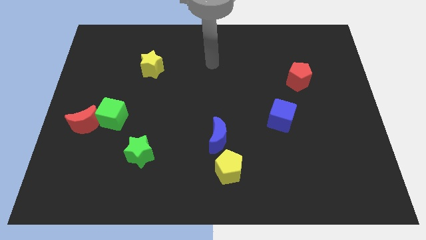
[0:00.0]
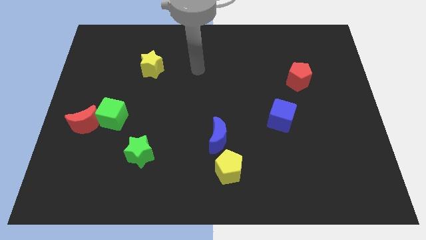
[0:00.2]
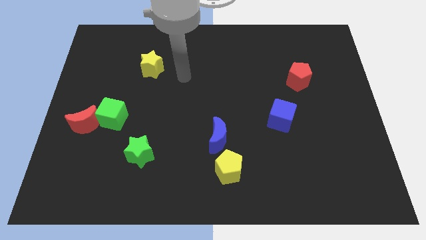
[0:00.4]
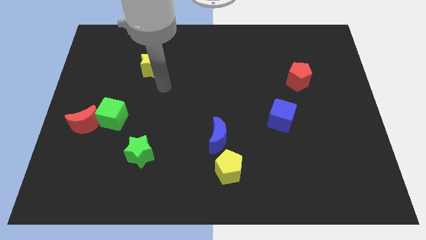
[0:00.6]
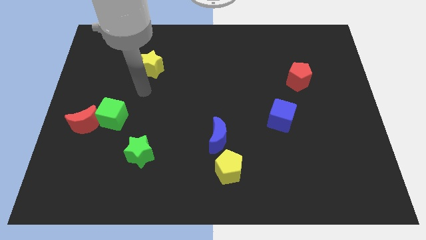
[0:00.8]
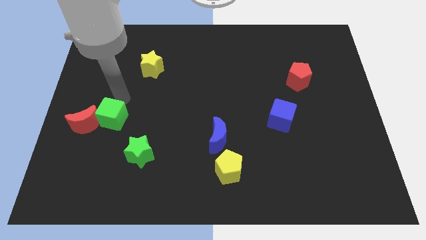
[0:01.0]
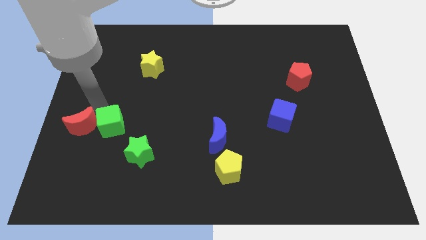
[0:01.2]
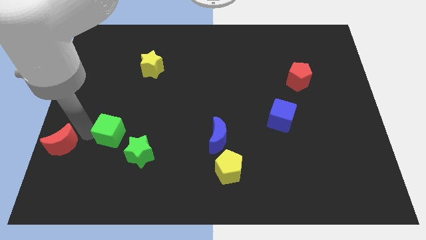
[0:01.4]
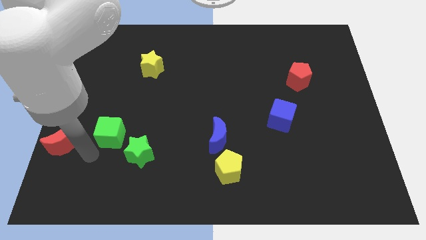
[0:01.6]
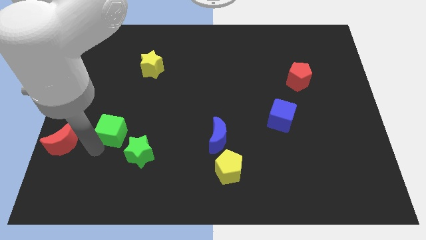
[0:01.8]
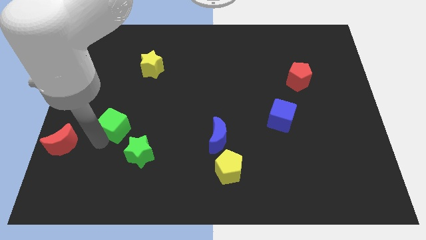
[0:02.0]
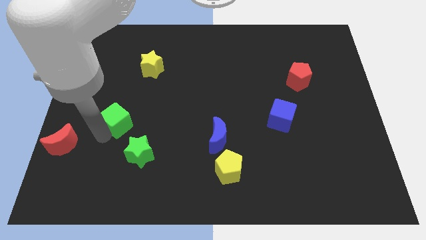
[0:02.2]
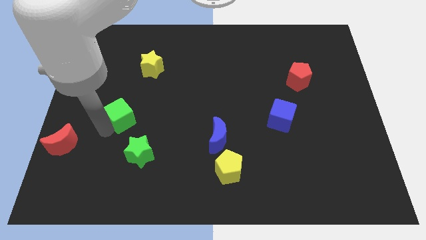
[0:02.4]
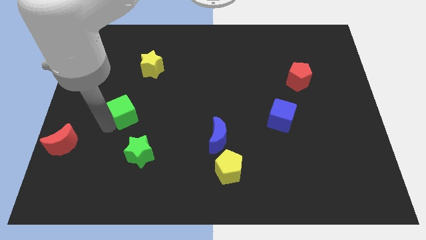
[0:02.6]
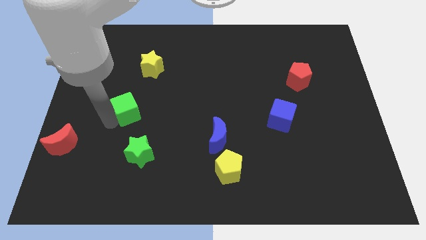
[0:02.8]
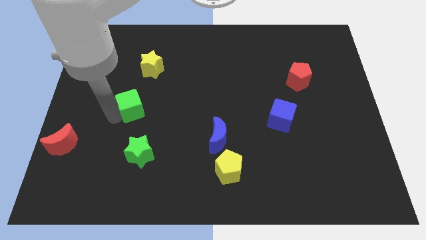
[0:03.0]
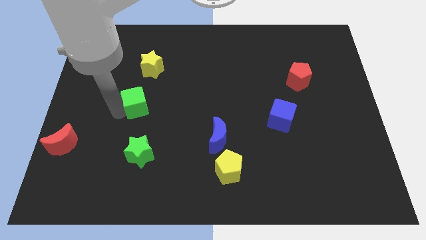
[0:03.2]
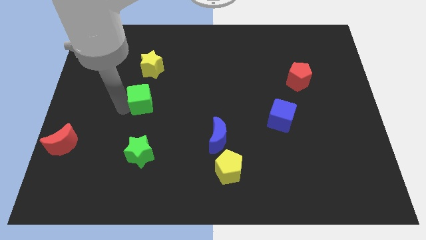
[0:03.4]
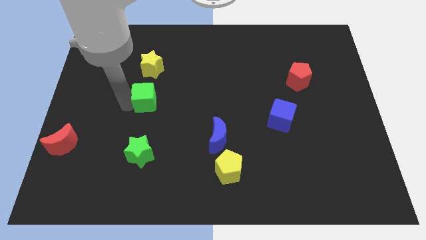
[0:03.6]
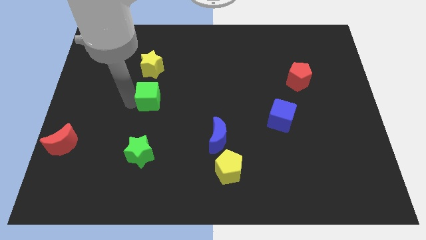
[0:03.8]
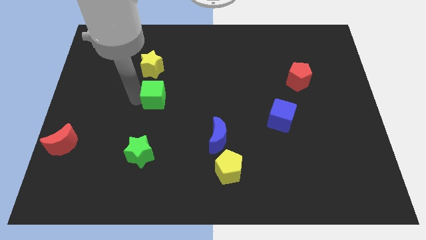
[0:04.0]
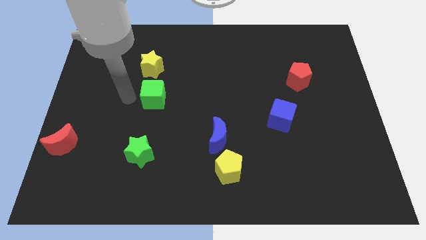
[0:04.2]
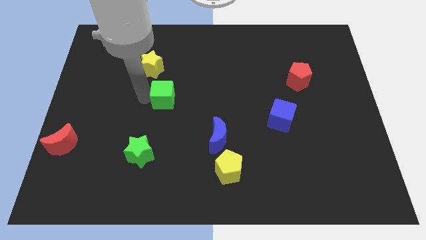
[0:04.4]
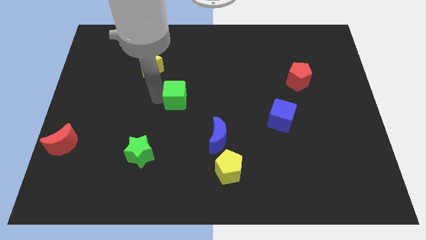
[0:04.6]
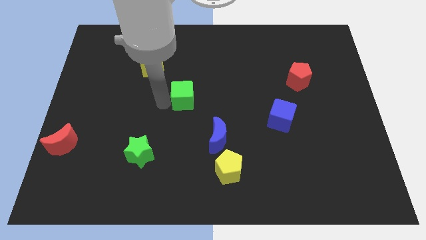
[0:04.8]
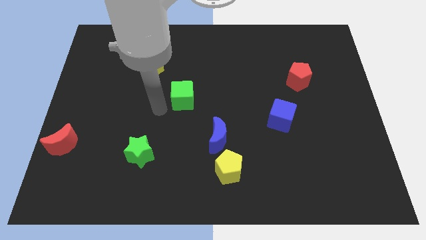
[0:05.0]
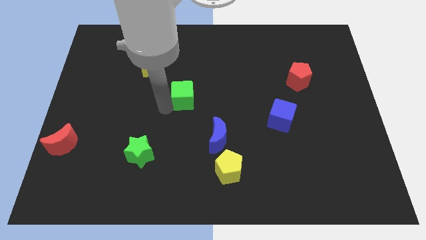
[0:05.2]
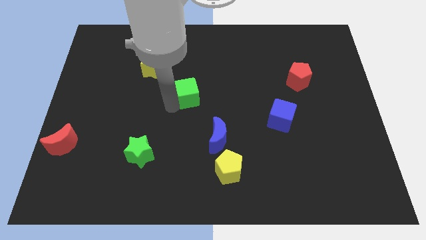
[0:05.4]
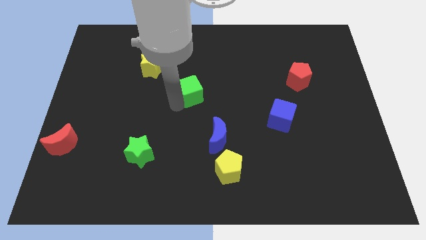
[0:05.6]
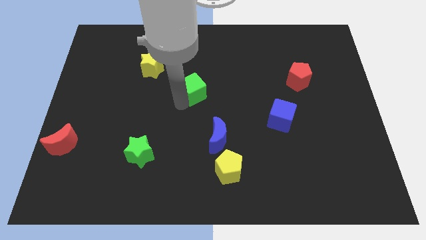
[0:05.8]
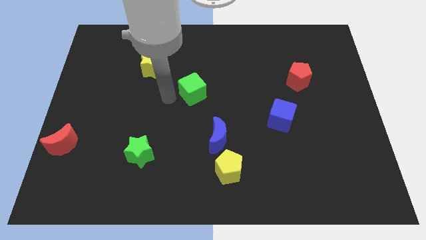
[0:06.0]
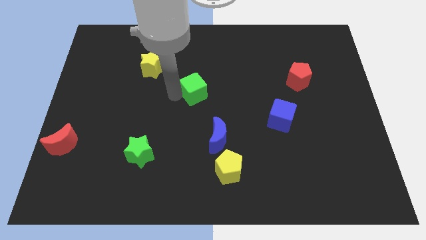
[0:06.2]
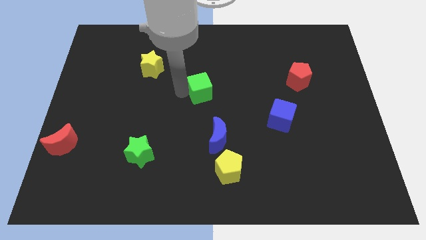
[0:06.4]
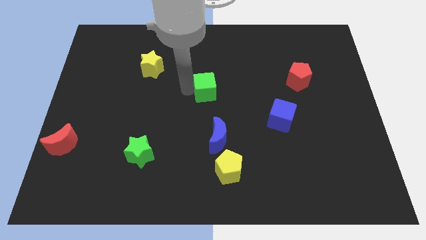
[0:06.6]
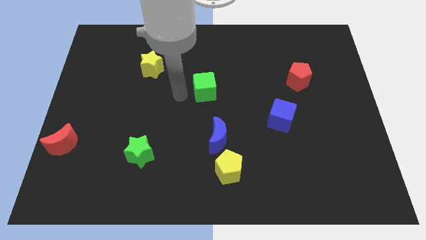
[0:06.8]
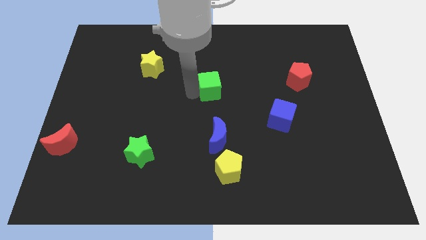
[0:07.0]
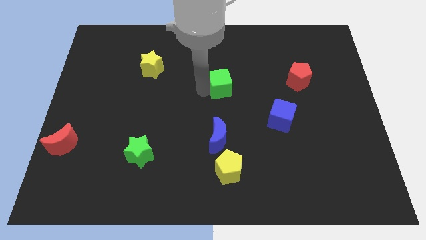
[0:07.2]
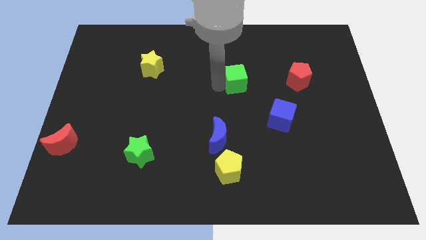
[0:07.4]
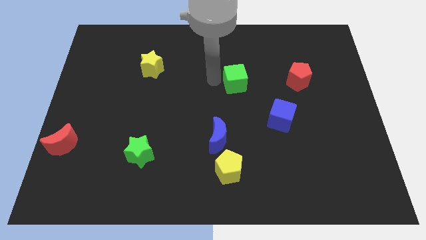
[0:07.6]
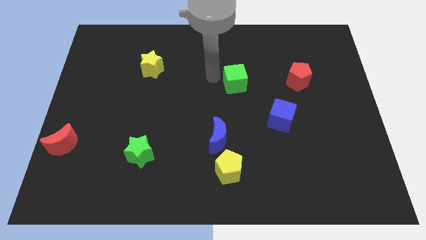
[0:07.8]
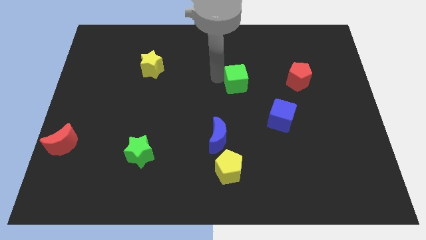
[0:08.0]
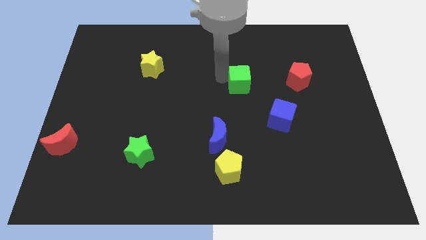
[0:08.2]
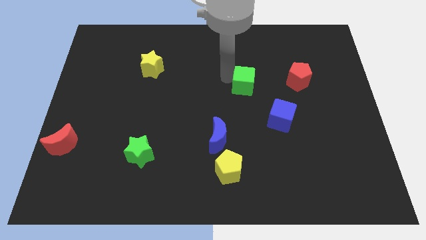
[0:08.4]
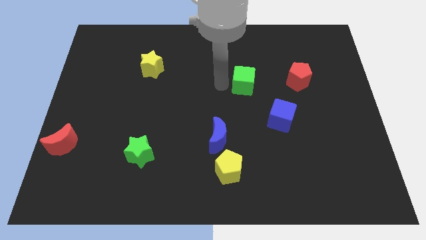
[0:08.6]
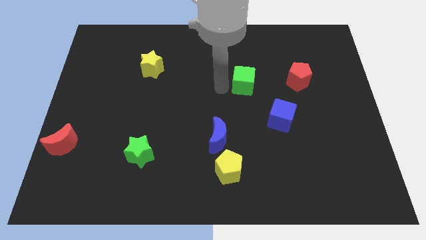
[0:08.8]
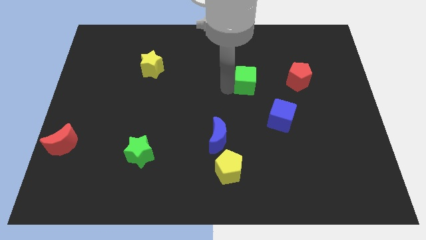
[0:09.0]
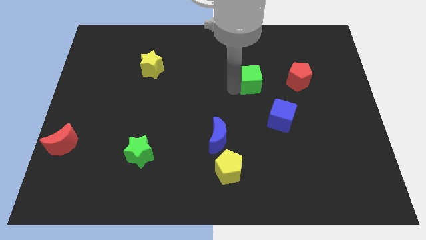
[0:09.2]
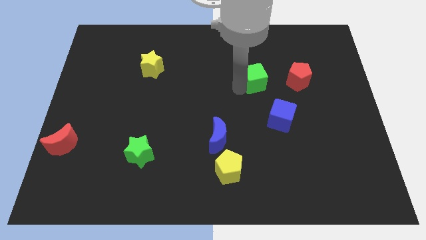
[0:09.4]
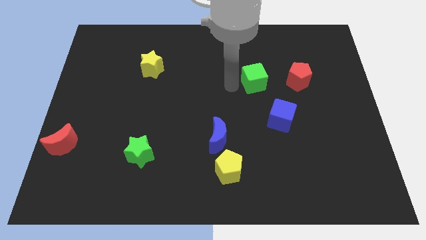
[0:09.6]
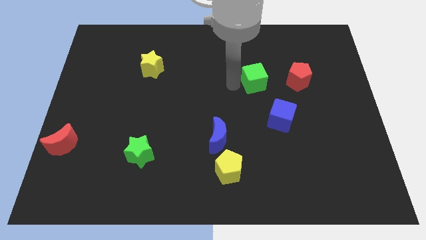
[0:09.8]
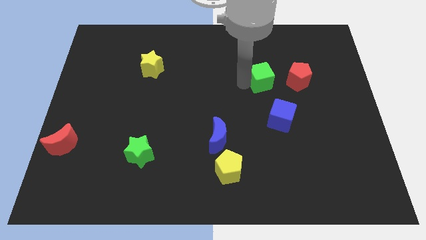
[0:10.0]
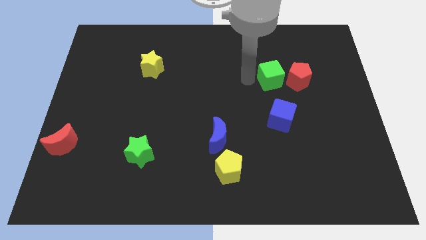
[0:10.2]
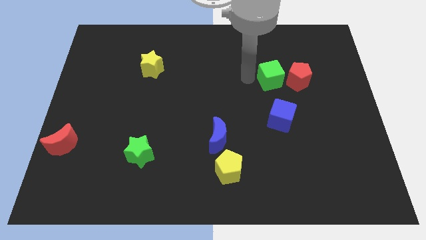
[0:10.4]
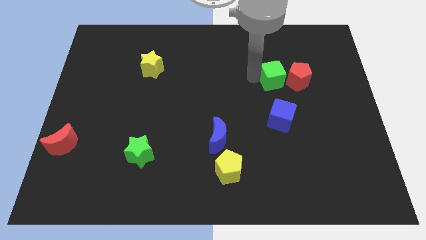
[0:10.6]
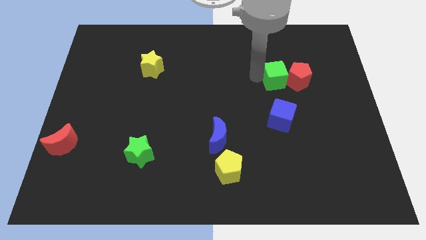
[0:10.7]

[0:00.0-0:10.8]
move the green cube close to the red pentagon

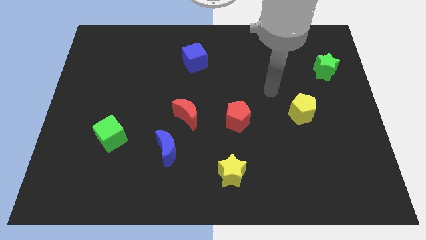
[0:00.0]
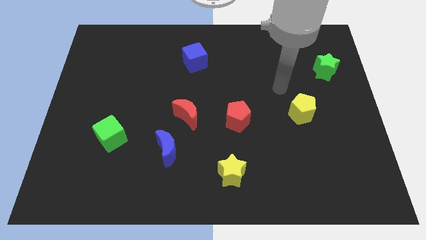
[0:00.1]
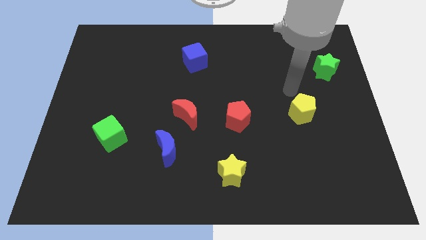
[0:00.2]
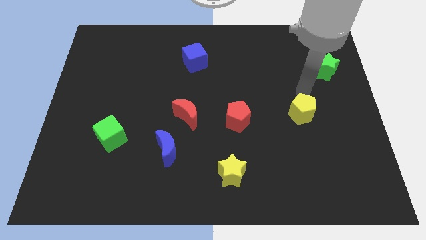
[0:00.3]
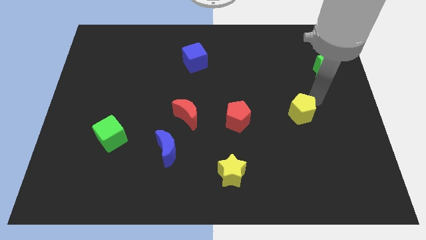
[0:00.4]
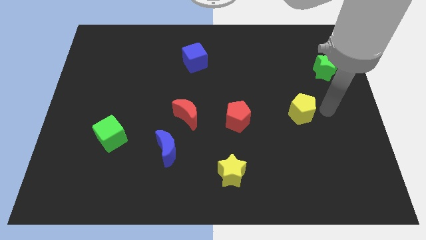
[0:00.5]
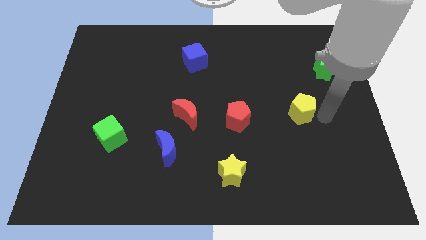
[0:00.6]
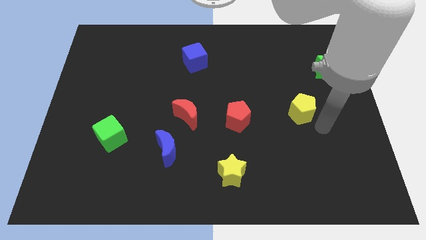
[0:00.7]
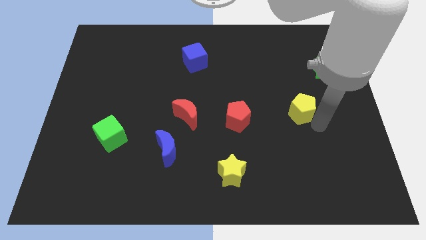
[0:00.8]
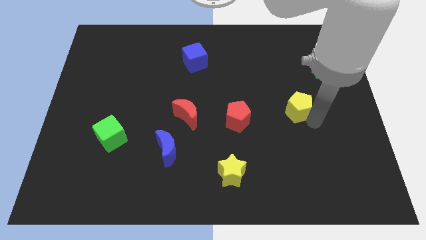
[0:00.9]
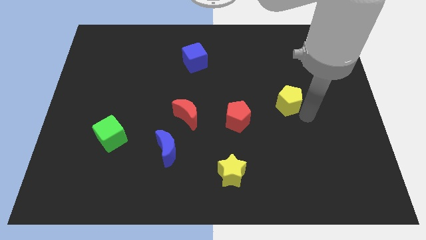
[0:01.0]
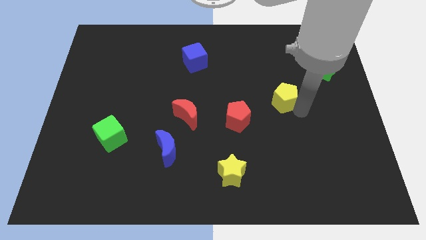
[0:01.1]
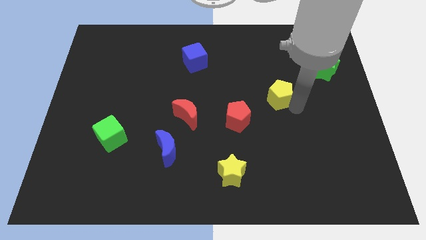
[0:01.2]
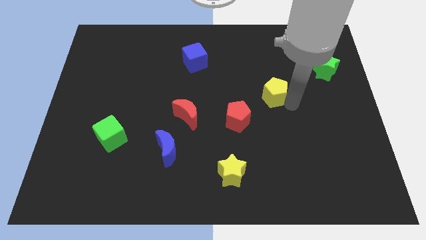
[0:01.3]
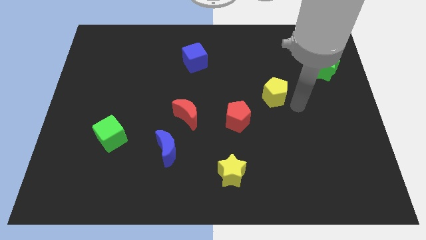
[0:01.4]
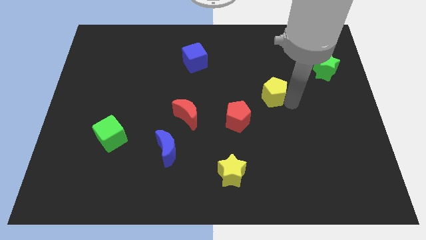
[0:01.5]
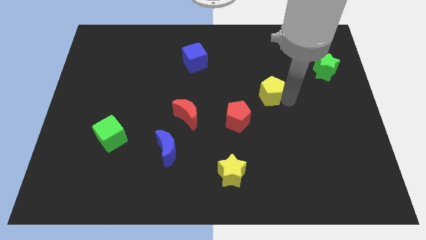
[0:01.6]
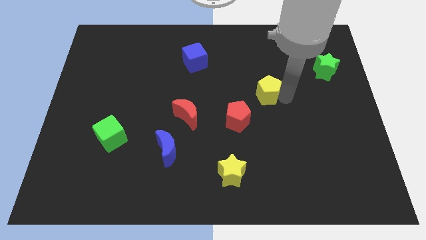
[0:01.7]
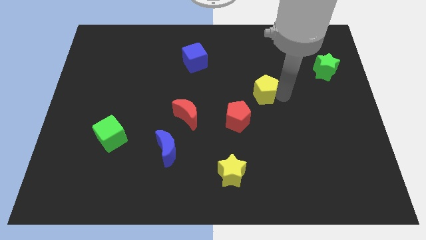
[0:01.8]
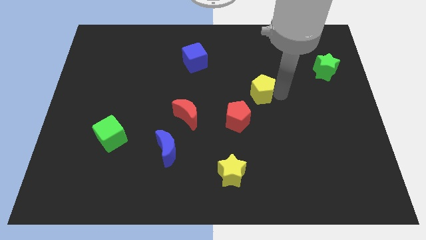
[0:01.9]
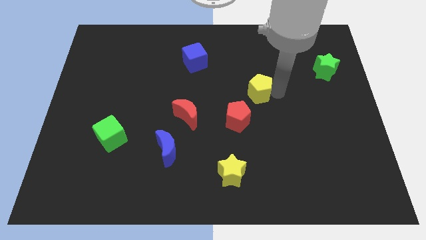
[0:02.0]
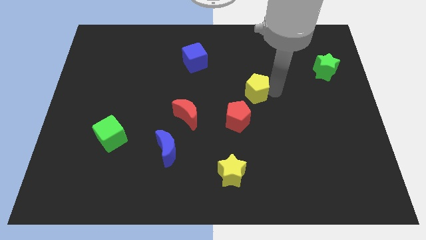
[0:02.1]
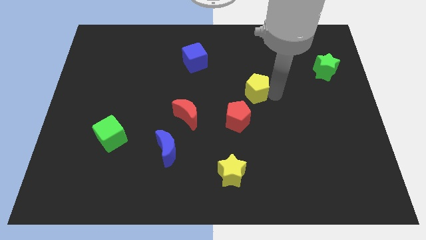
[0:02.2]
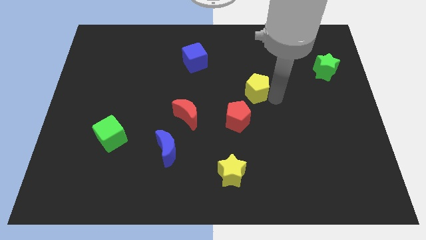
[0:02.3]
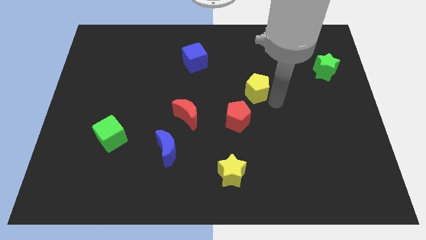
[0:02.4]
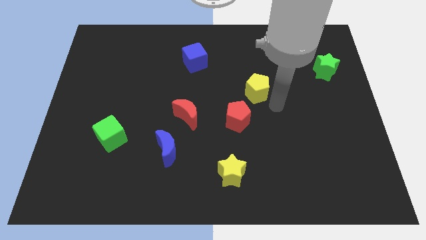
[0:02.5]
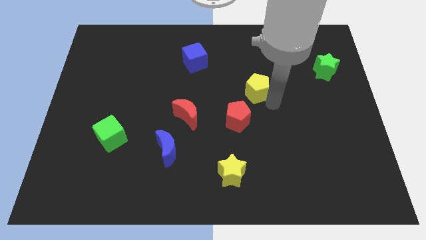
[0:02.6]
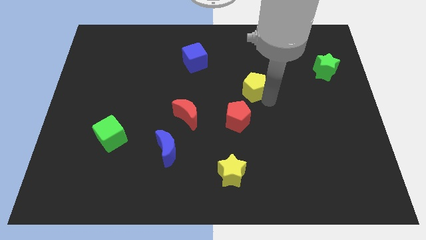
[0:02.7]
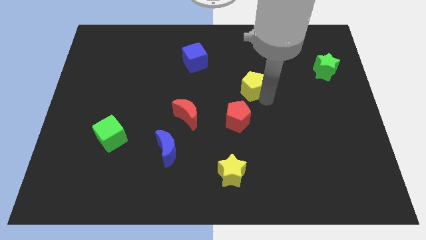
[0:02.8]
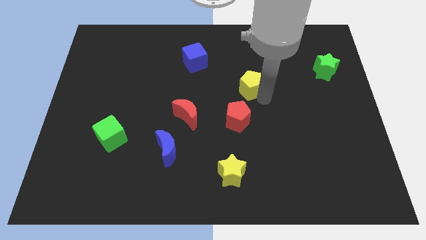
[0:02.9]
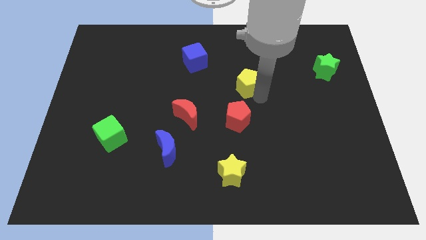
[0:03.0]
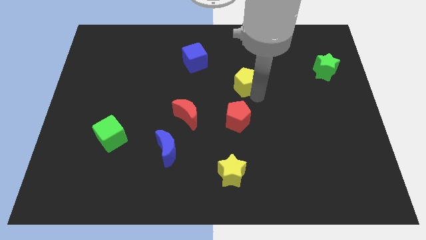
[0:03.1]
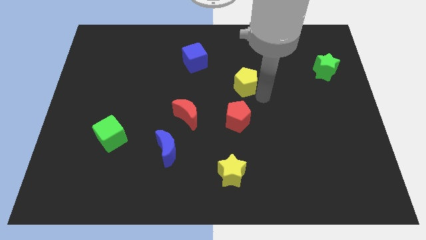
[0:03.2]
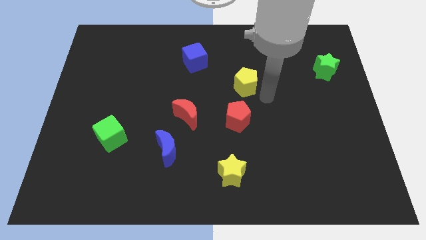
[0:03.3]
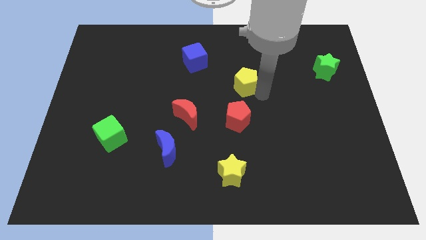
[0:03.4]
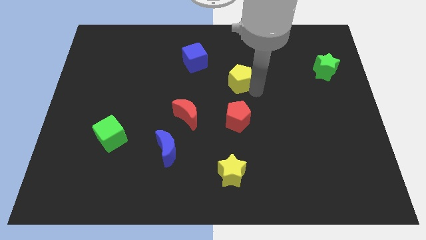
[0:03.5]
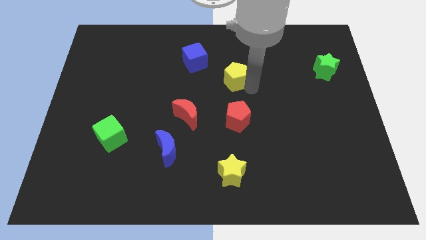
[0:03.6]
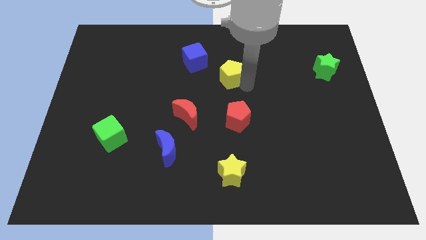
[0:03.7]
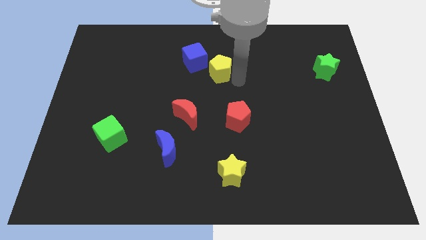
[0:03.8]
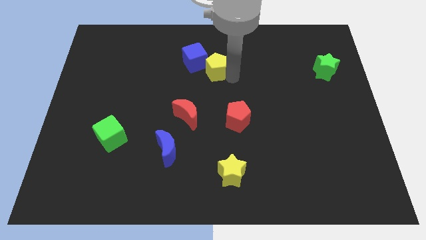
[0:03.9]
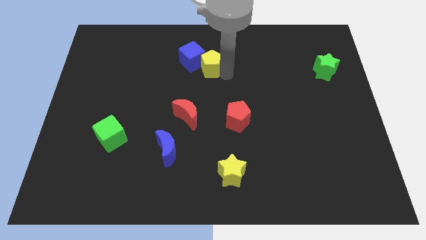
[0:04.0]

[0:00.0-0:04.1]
push the yellow pentagon close to the blue cube
